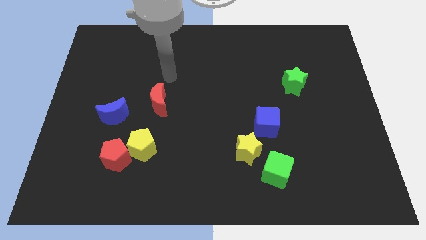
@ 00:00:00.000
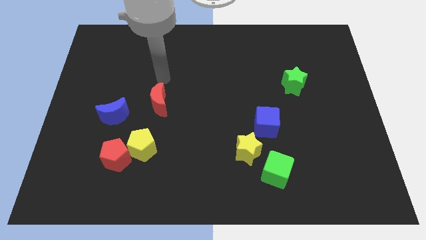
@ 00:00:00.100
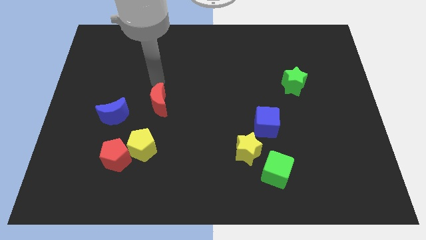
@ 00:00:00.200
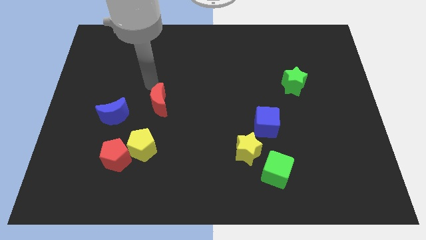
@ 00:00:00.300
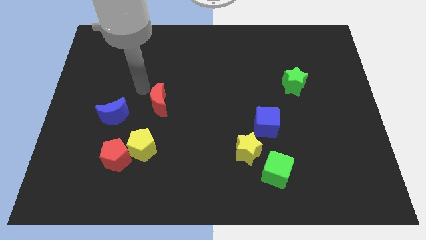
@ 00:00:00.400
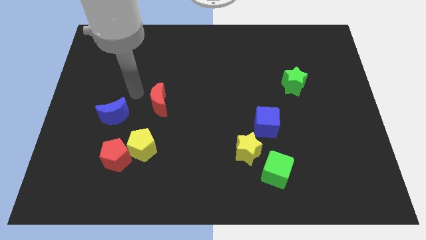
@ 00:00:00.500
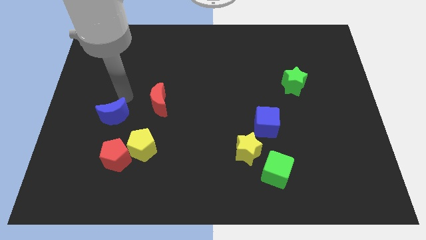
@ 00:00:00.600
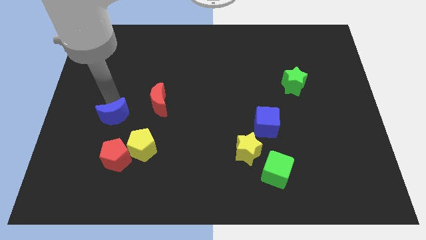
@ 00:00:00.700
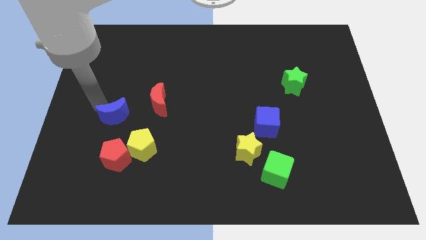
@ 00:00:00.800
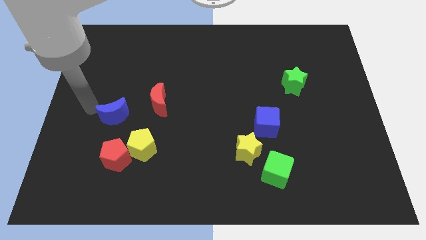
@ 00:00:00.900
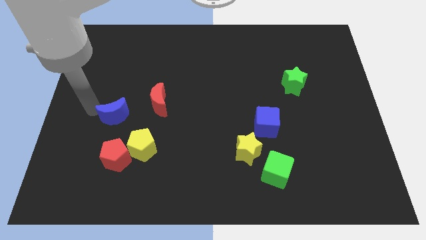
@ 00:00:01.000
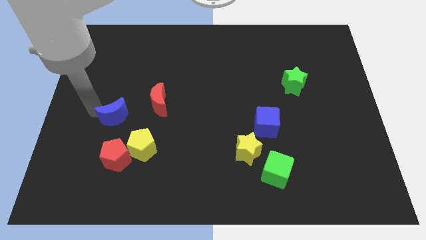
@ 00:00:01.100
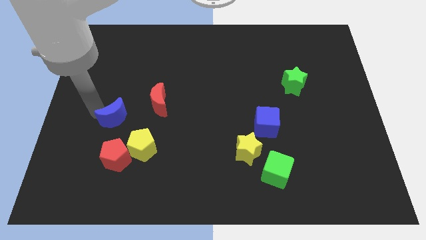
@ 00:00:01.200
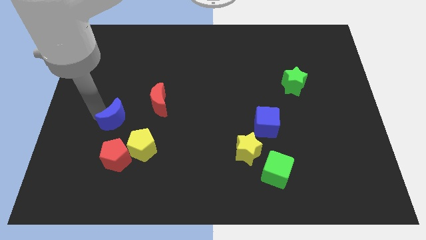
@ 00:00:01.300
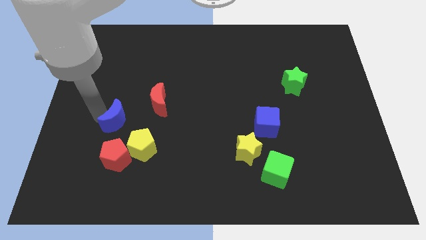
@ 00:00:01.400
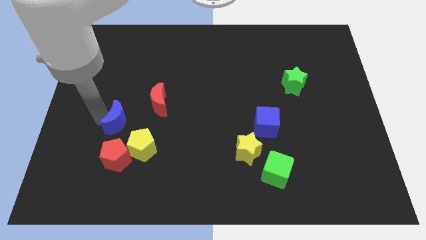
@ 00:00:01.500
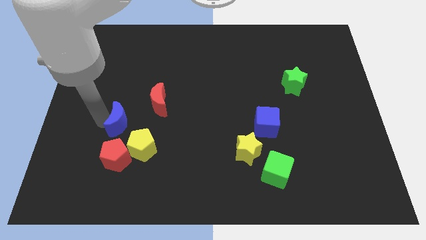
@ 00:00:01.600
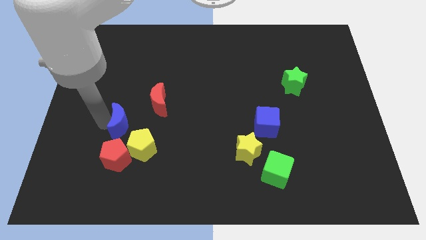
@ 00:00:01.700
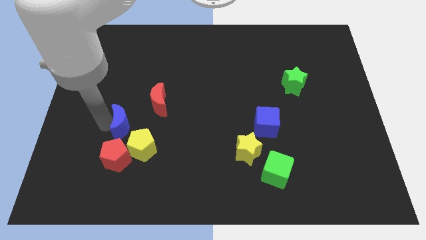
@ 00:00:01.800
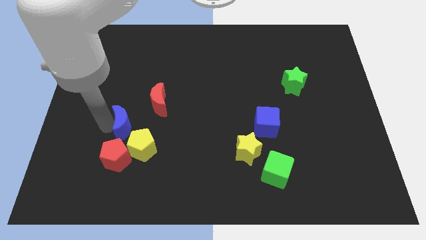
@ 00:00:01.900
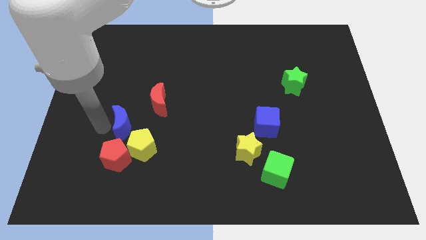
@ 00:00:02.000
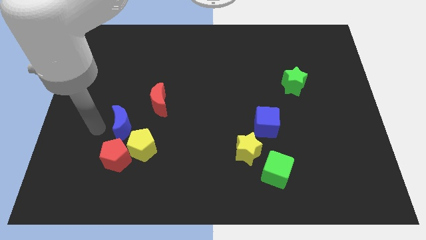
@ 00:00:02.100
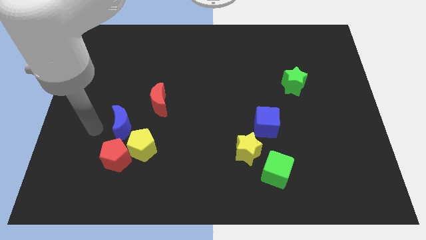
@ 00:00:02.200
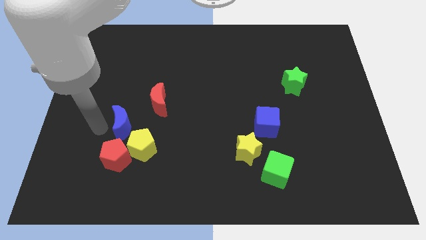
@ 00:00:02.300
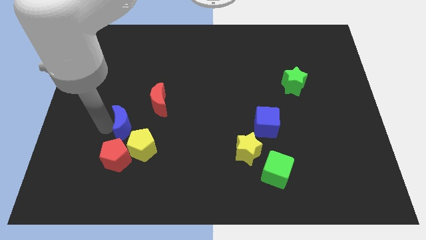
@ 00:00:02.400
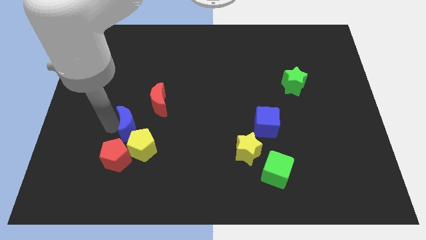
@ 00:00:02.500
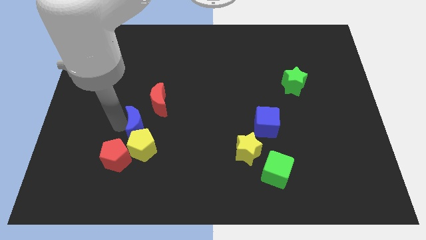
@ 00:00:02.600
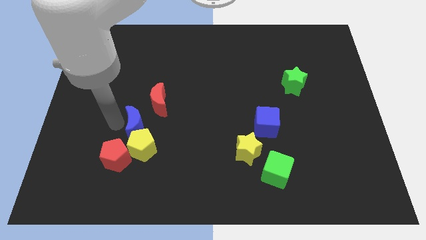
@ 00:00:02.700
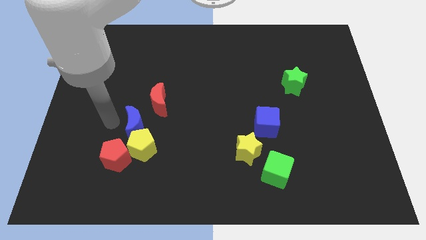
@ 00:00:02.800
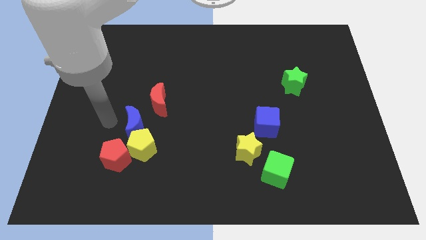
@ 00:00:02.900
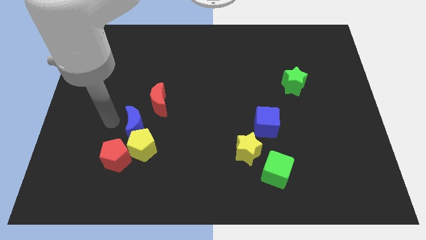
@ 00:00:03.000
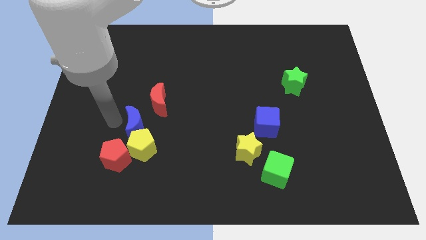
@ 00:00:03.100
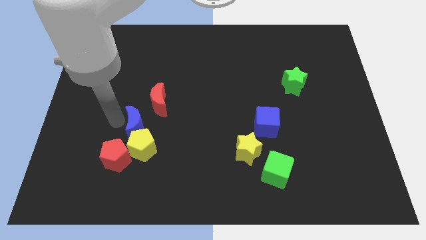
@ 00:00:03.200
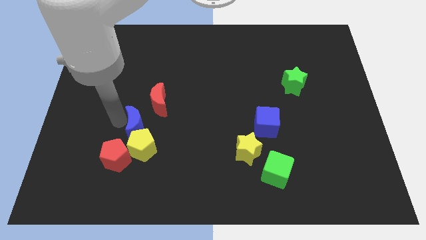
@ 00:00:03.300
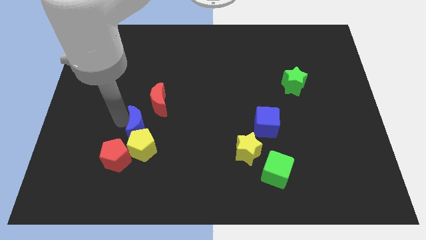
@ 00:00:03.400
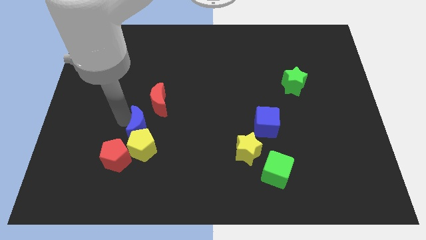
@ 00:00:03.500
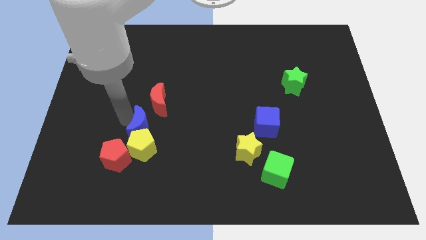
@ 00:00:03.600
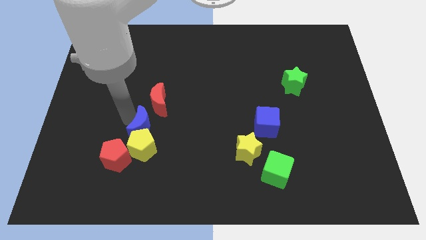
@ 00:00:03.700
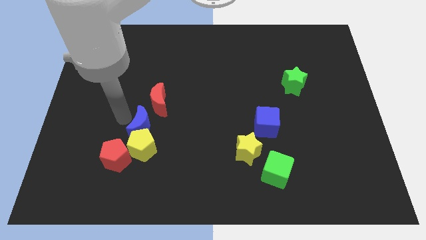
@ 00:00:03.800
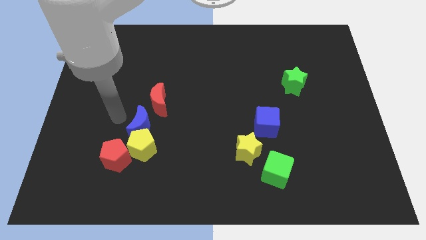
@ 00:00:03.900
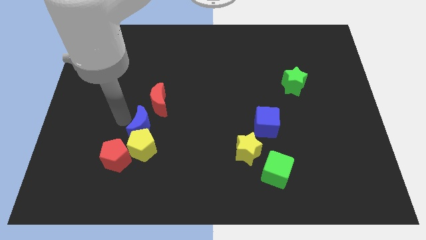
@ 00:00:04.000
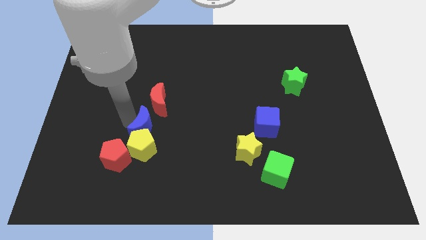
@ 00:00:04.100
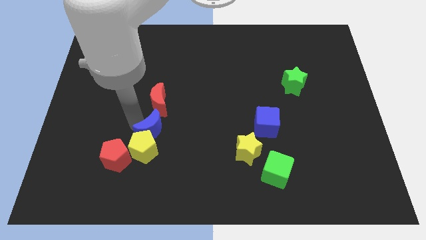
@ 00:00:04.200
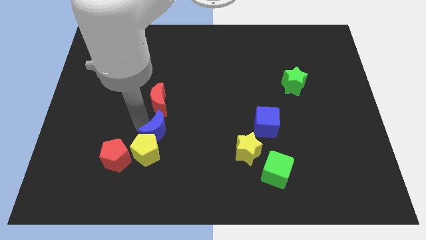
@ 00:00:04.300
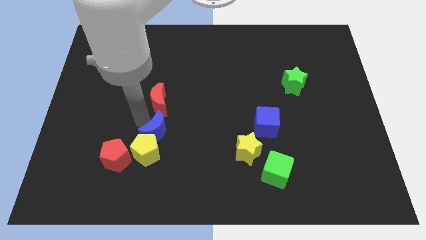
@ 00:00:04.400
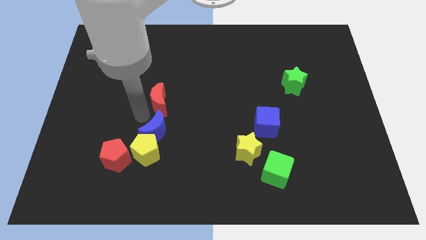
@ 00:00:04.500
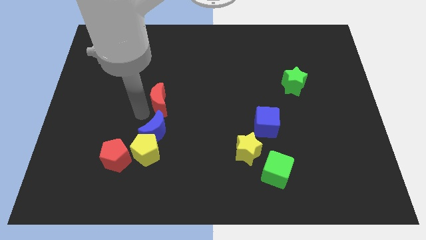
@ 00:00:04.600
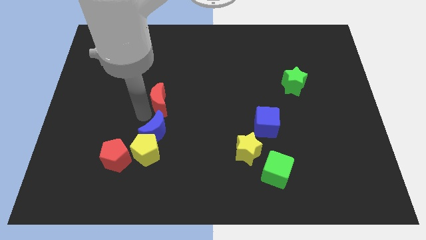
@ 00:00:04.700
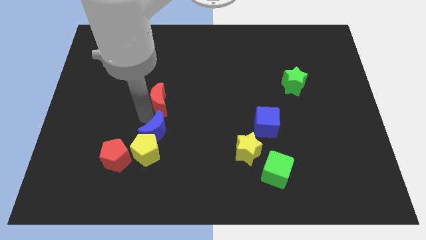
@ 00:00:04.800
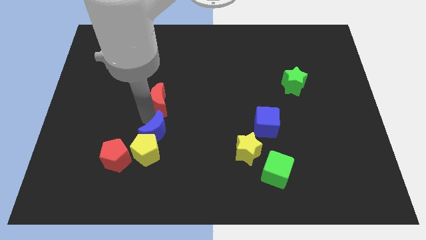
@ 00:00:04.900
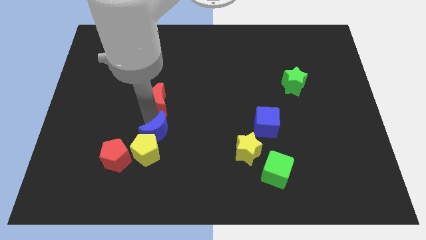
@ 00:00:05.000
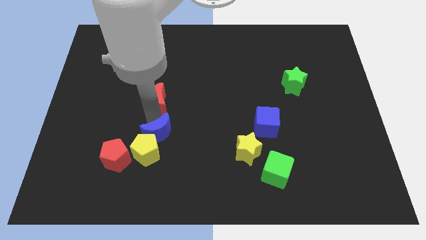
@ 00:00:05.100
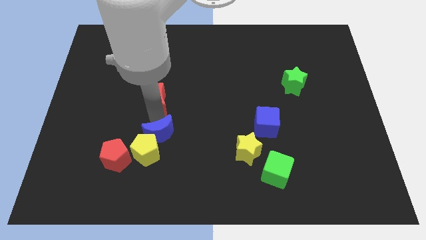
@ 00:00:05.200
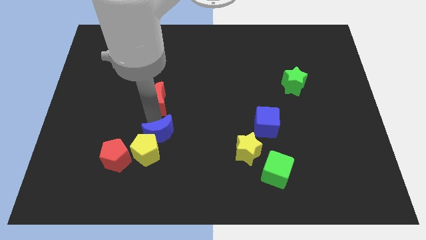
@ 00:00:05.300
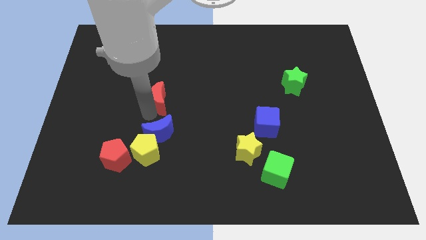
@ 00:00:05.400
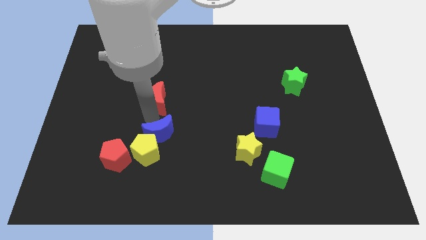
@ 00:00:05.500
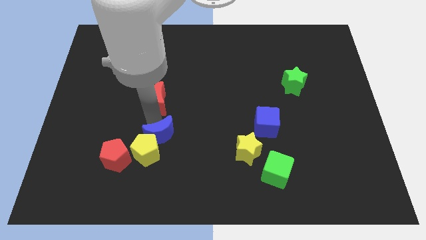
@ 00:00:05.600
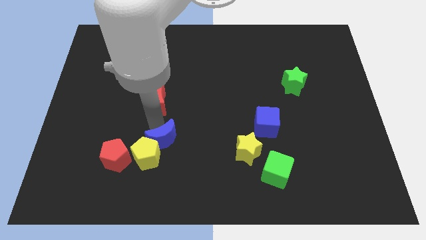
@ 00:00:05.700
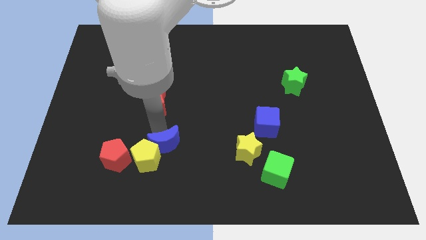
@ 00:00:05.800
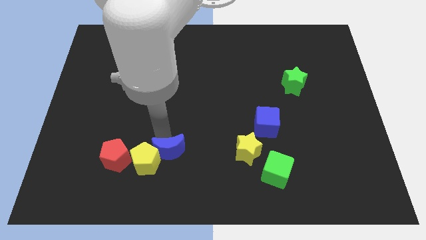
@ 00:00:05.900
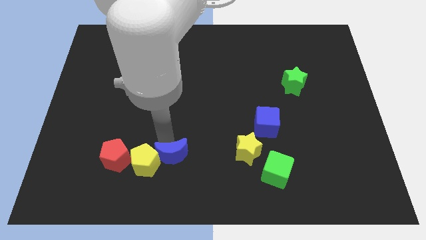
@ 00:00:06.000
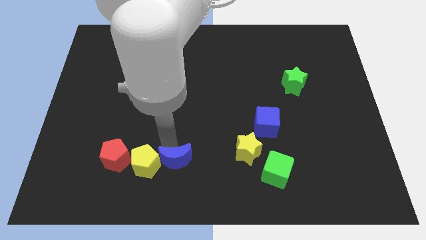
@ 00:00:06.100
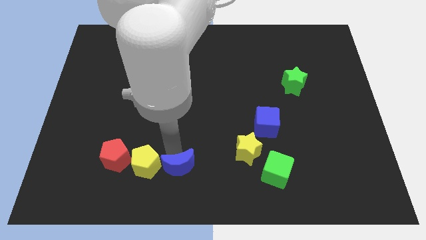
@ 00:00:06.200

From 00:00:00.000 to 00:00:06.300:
slide the blue moon to the bottom
